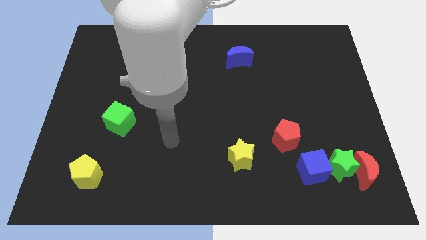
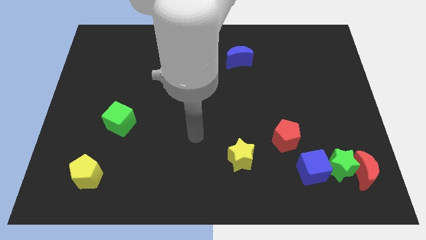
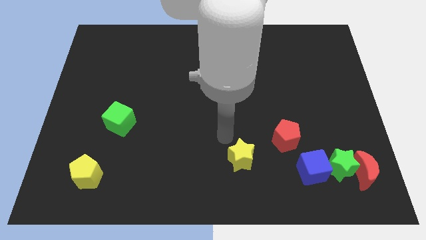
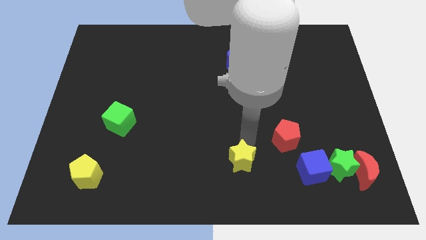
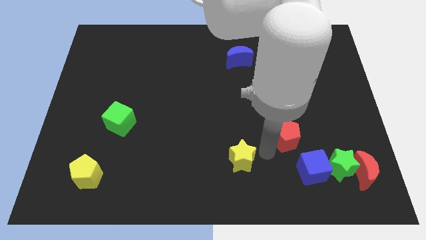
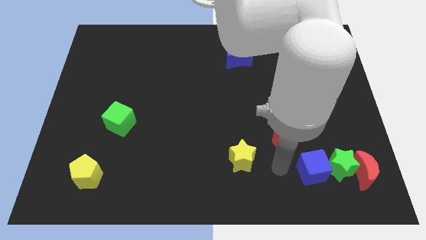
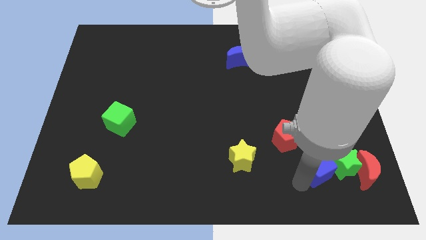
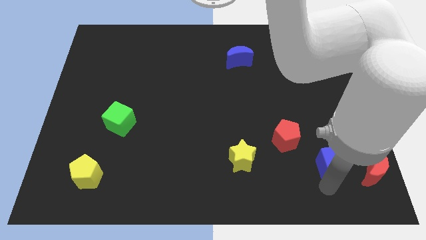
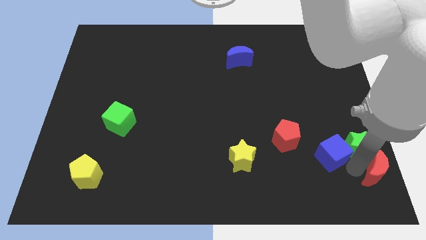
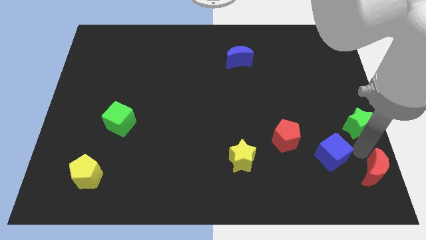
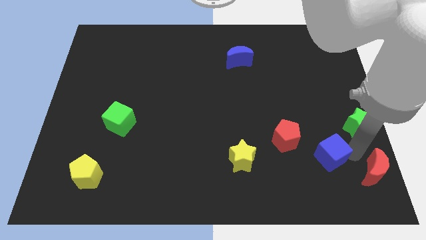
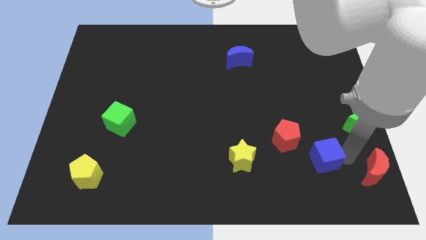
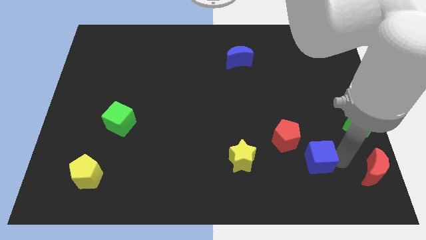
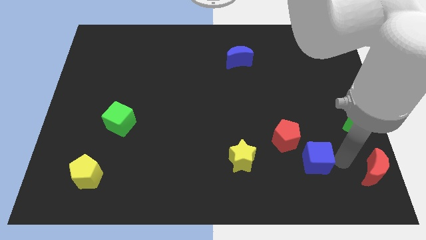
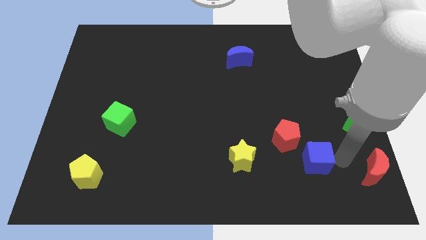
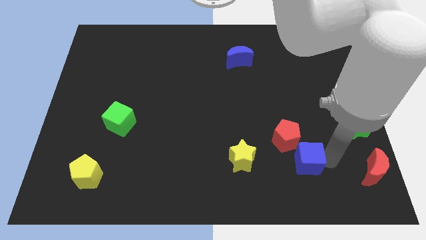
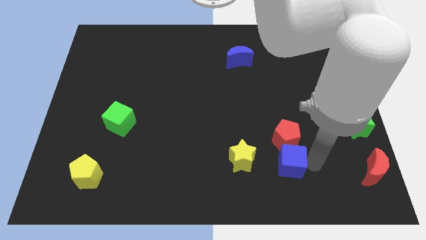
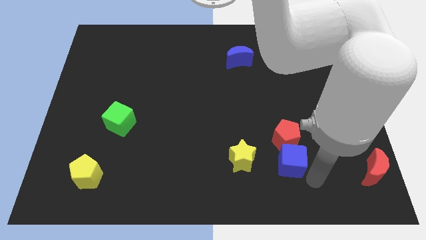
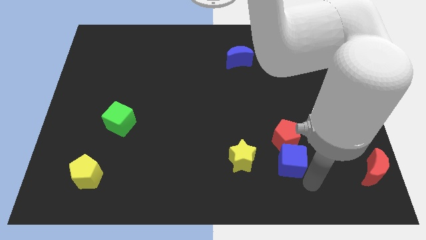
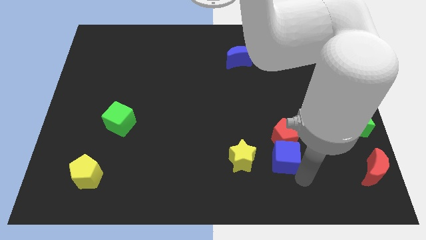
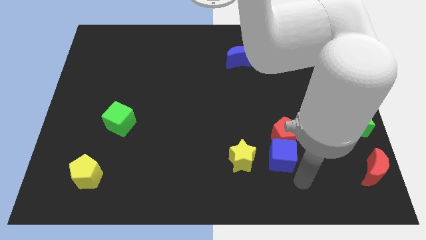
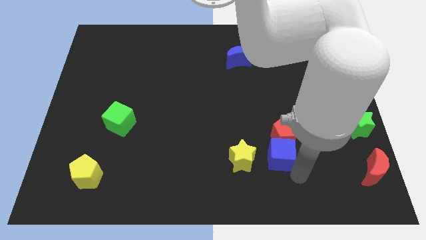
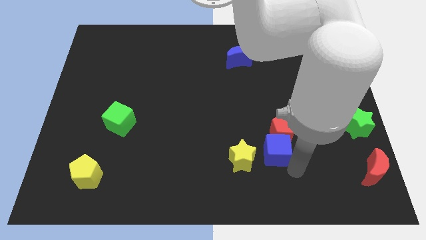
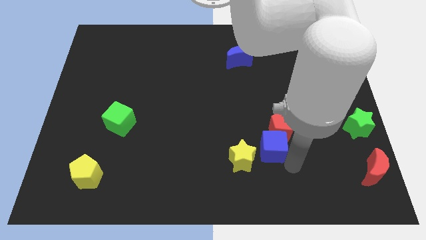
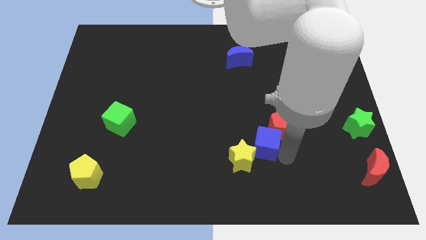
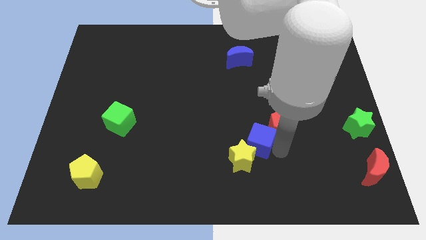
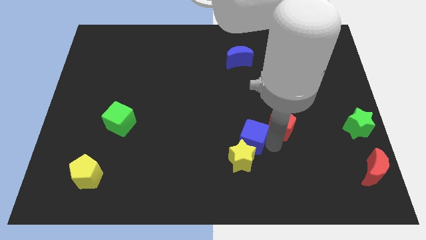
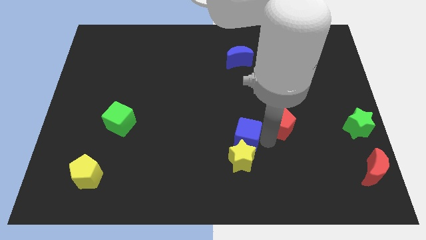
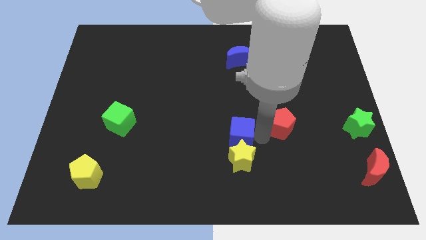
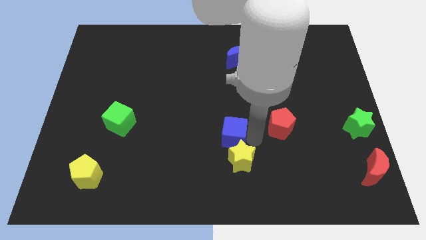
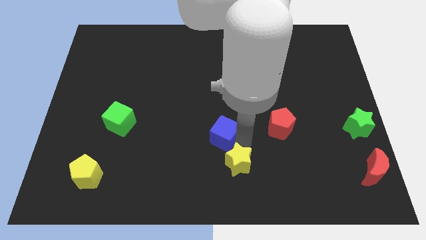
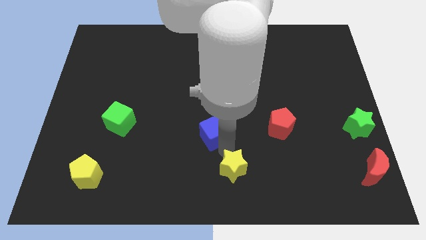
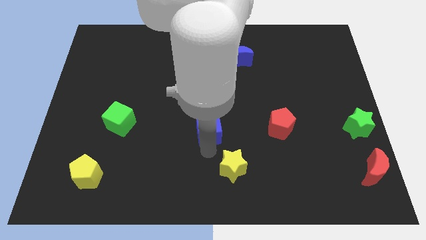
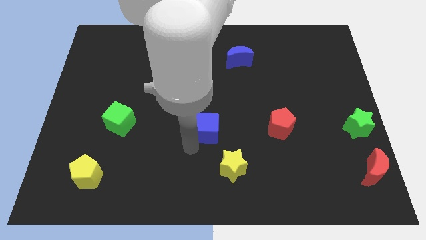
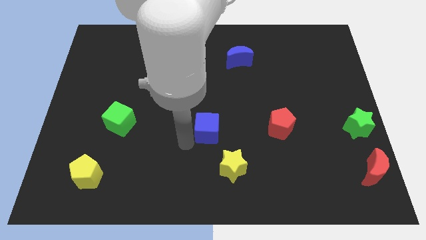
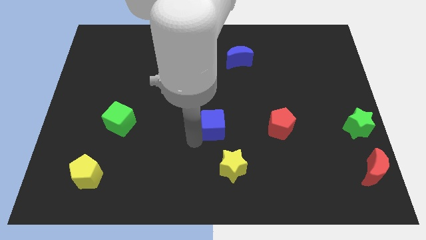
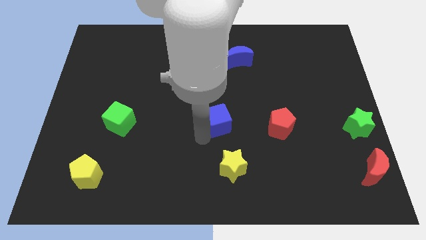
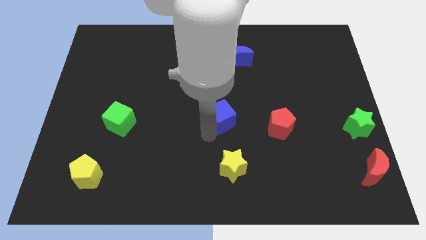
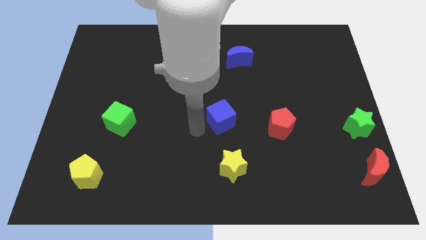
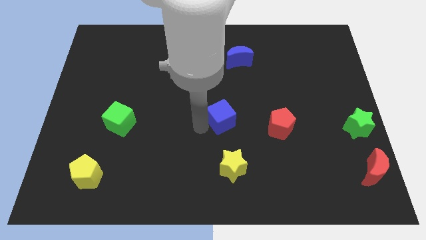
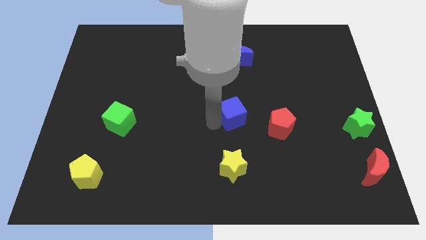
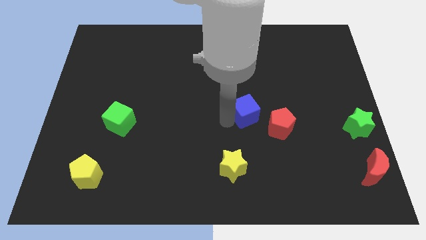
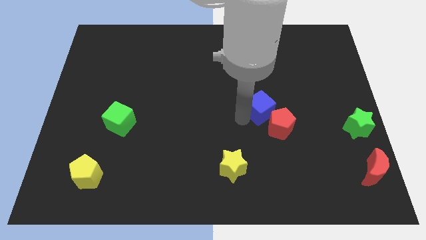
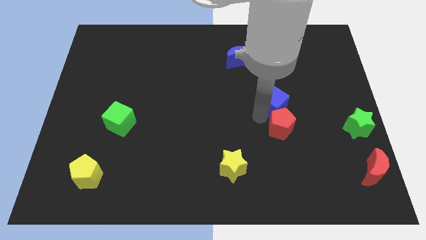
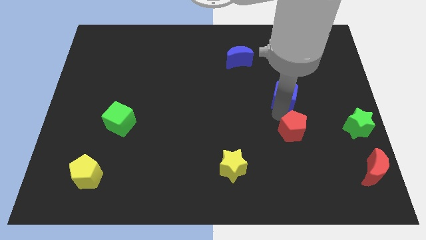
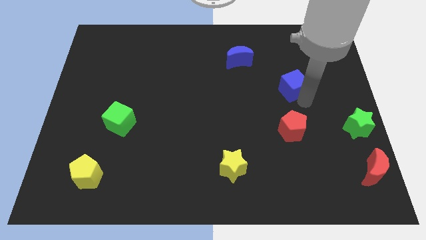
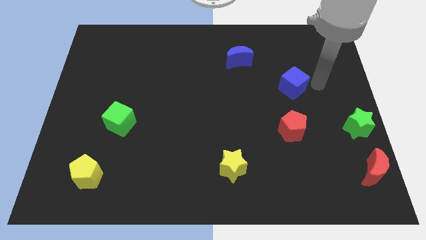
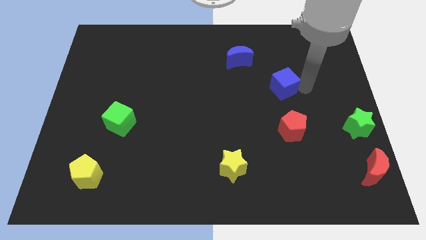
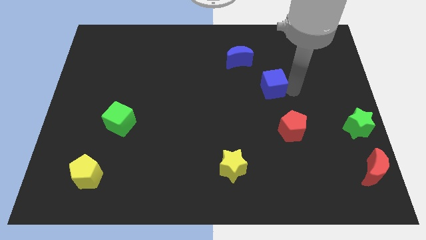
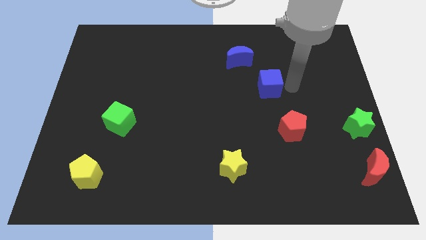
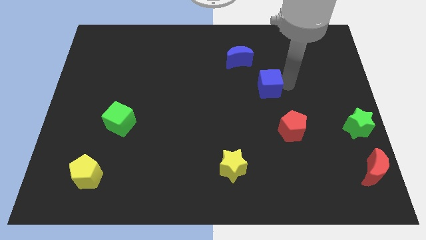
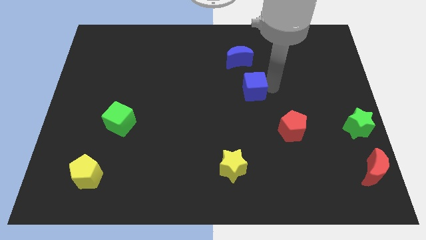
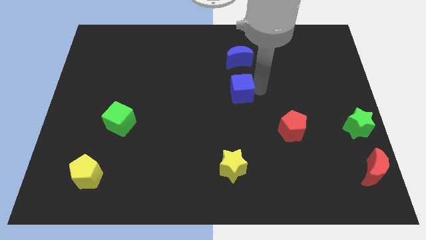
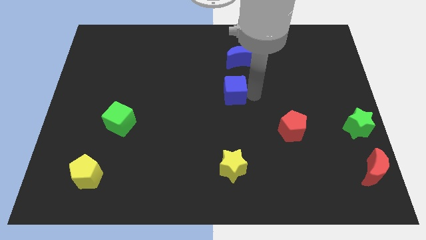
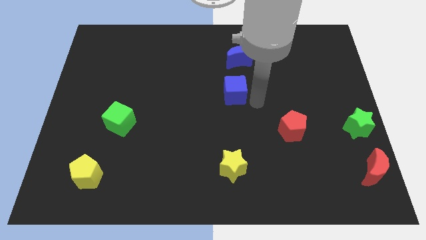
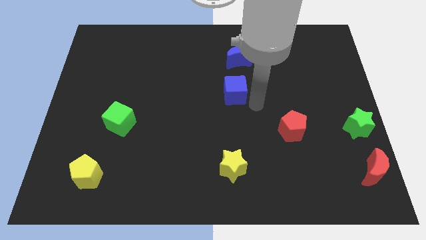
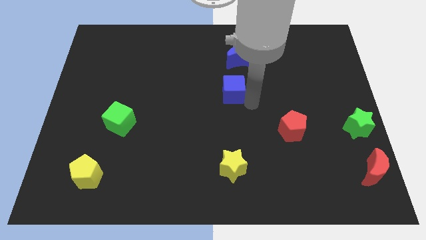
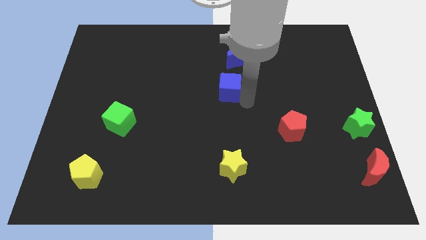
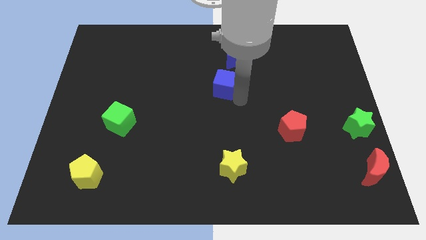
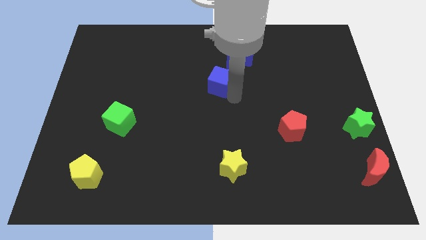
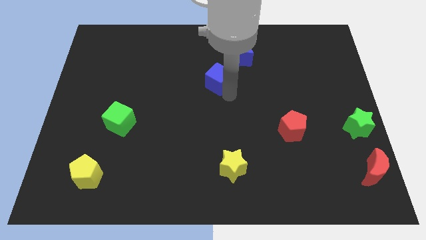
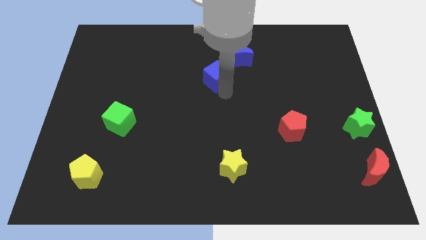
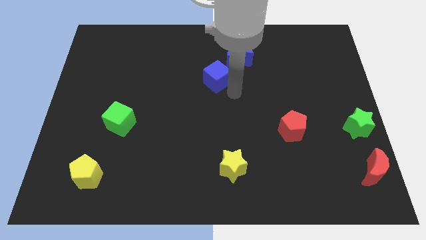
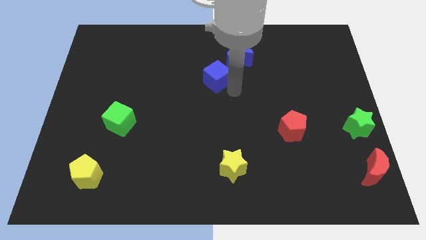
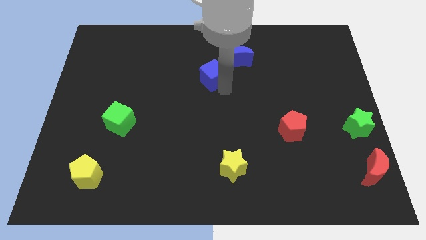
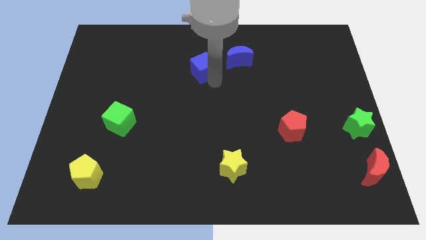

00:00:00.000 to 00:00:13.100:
slide the blue cube to the left side of the blue moon

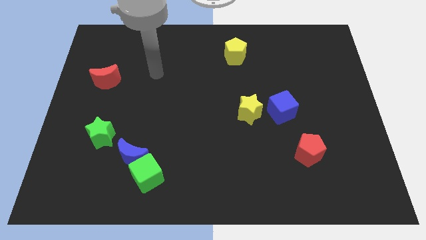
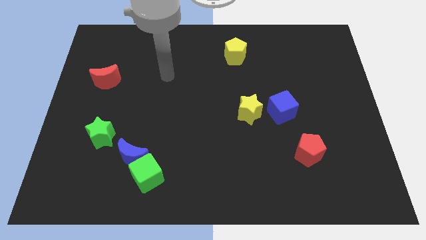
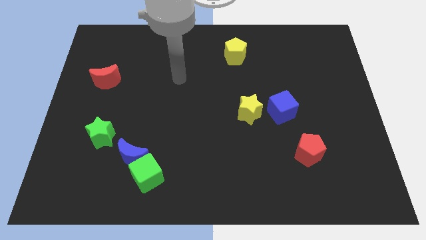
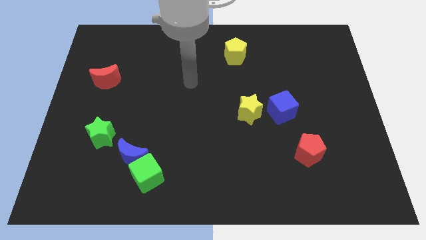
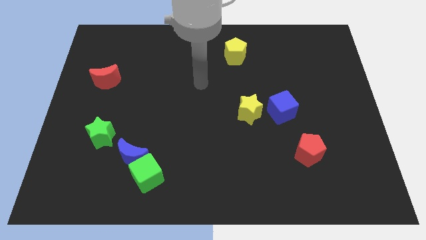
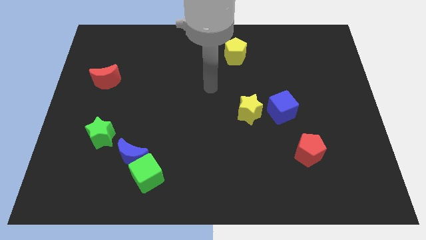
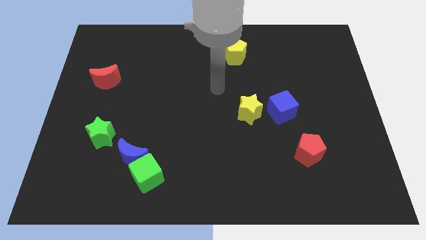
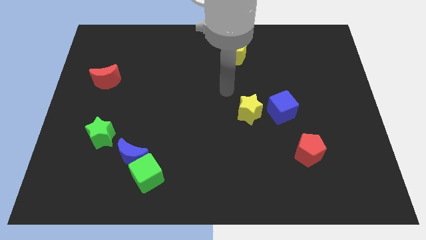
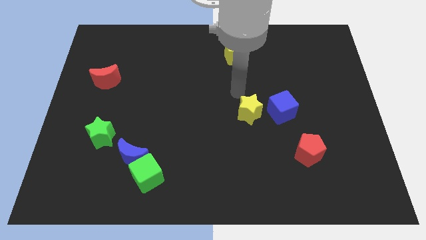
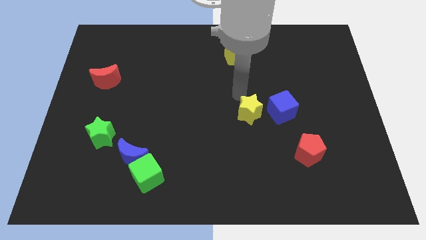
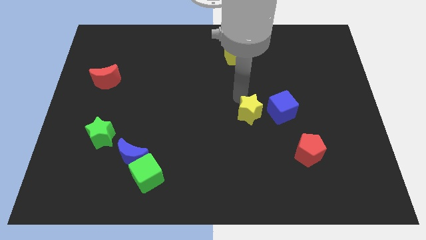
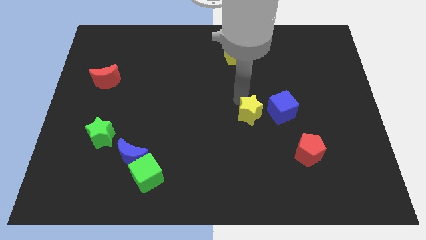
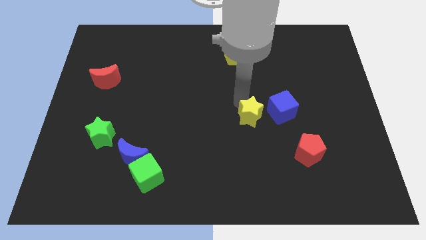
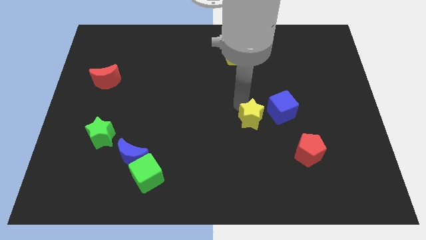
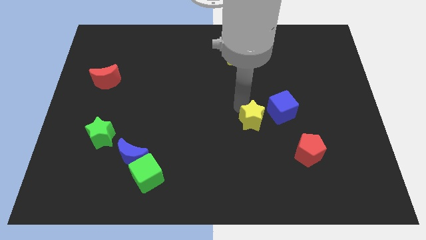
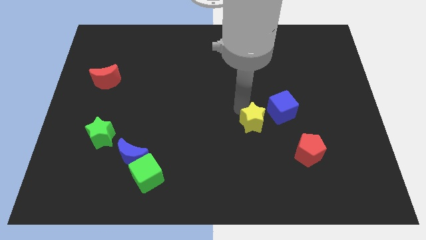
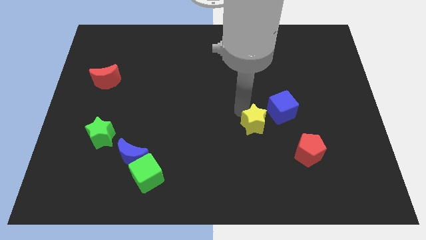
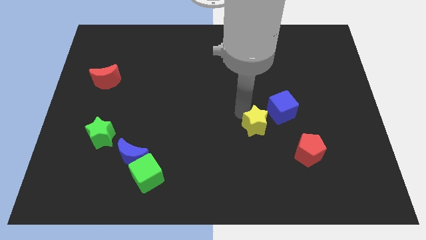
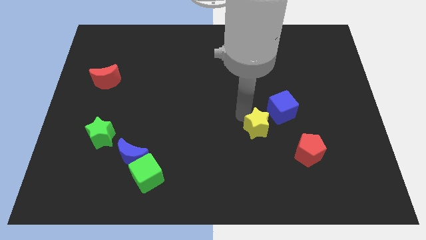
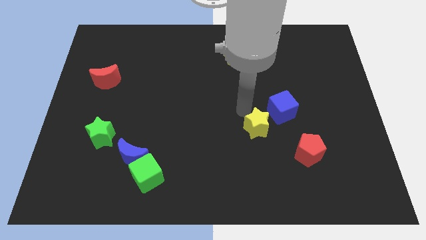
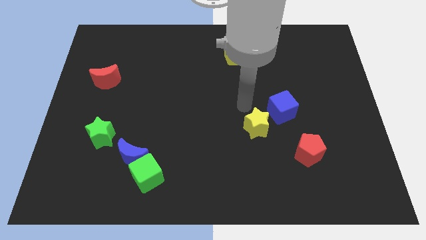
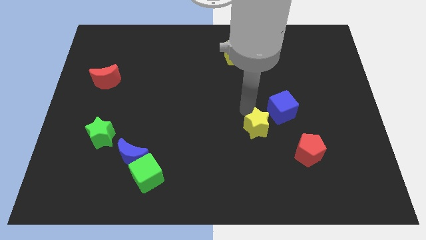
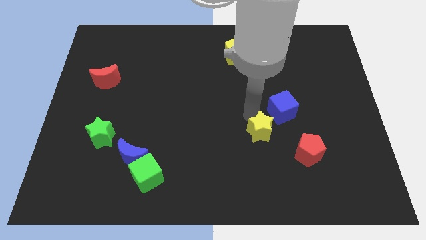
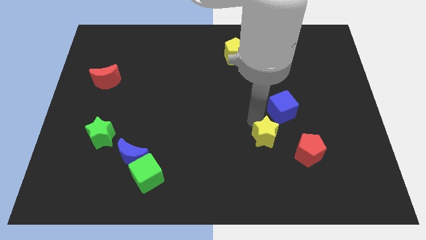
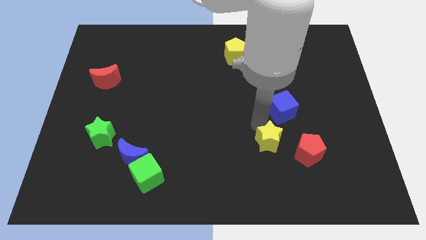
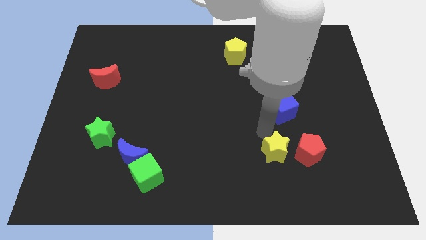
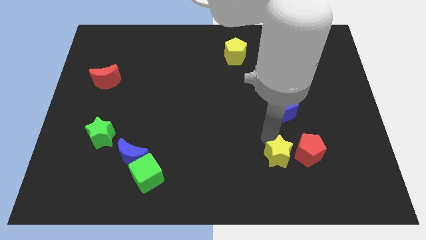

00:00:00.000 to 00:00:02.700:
push the yellow star to the bottom left side of the red pentagon

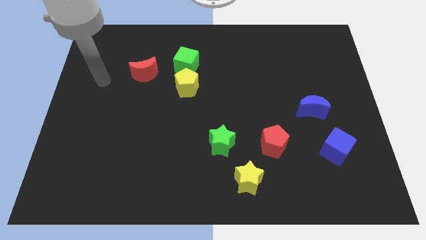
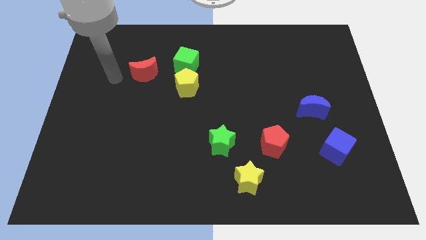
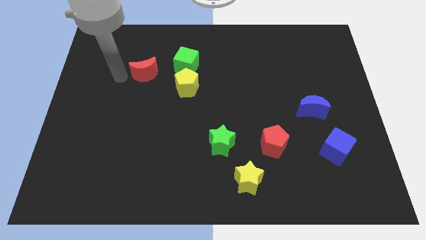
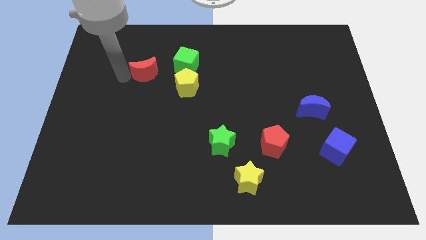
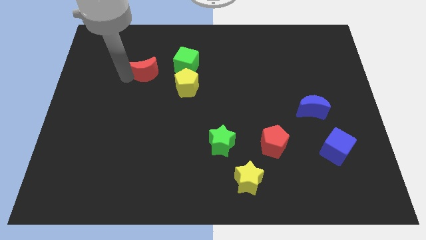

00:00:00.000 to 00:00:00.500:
put the red moon to the top left of the yellow pentagon
